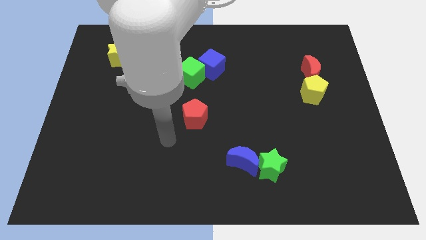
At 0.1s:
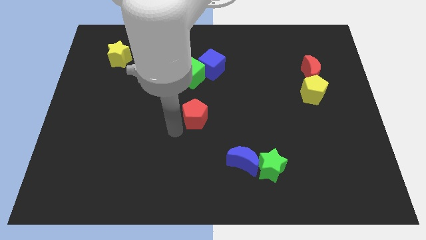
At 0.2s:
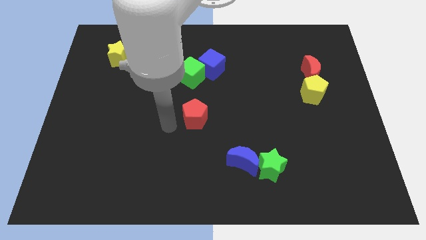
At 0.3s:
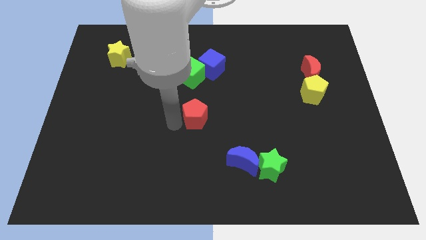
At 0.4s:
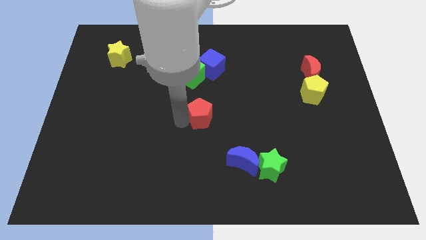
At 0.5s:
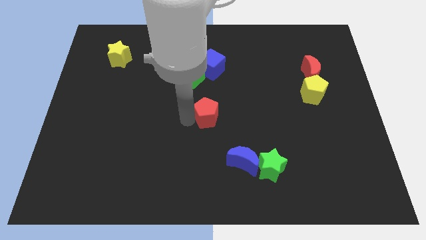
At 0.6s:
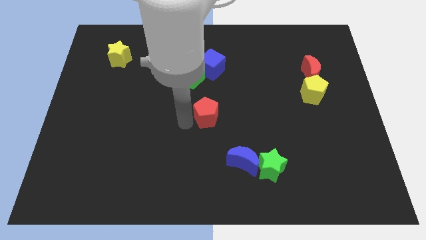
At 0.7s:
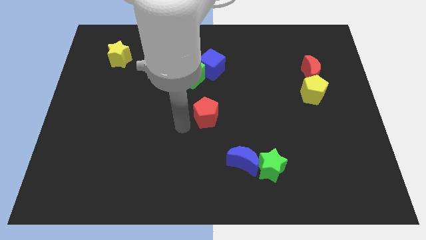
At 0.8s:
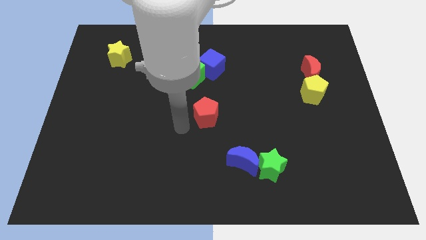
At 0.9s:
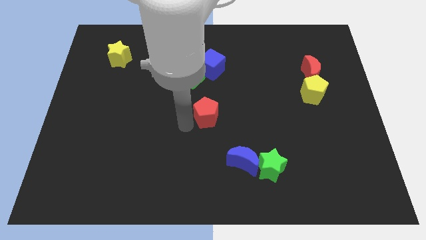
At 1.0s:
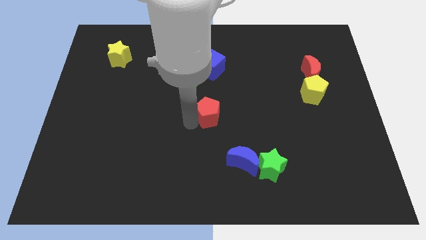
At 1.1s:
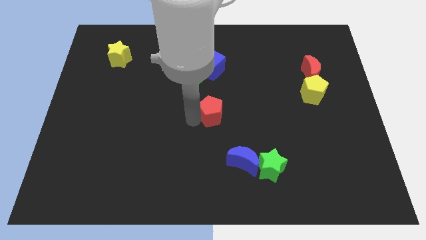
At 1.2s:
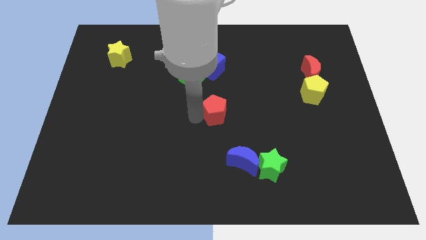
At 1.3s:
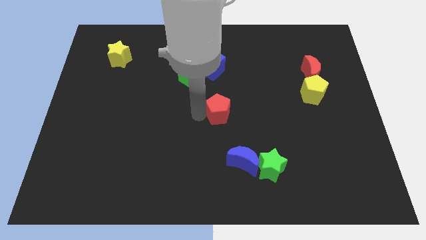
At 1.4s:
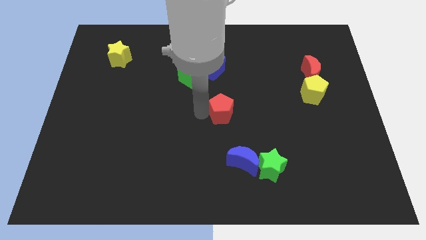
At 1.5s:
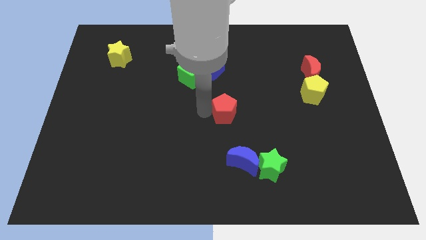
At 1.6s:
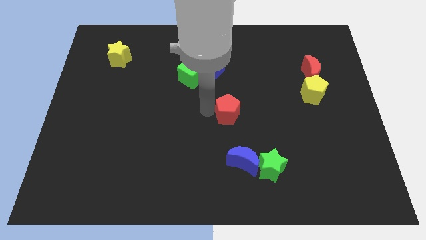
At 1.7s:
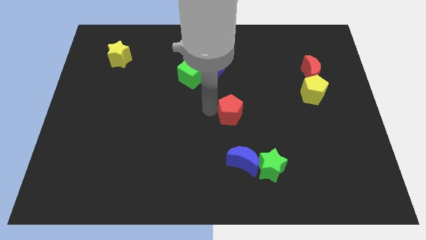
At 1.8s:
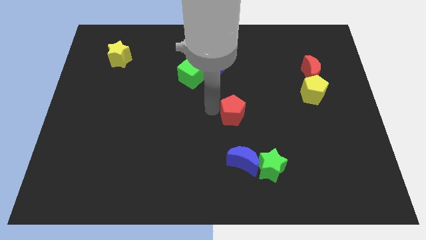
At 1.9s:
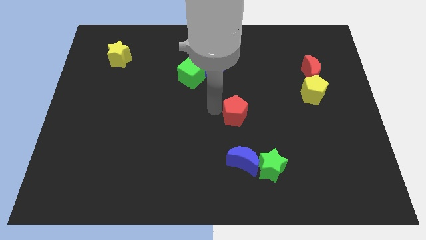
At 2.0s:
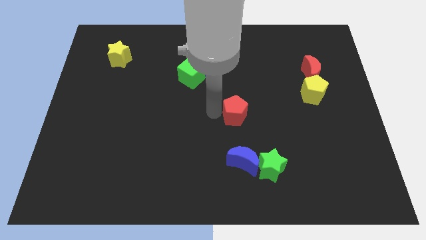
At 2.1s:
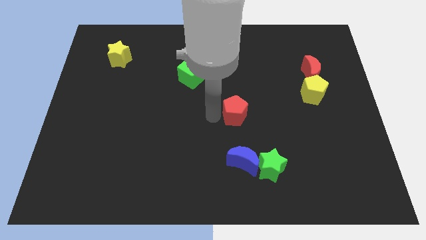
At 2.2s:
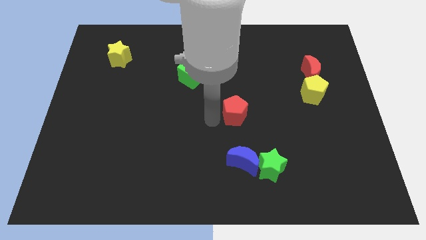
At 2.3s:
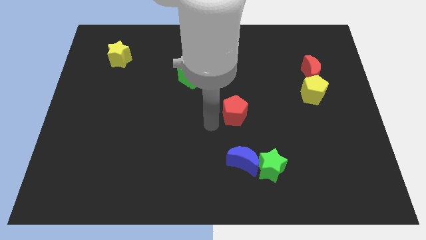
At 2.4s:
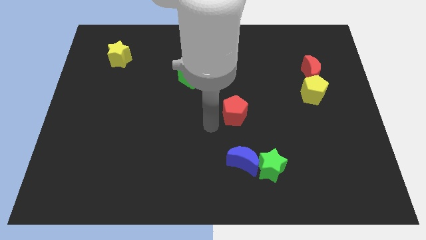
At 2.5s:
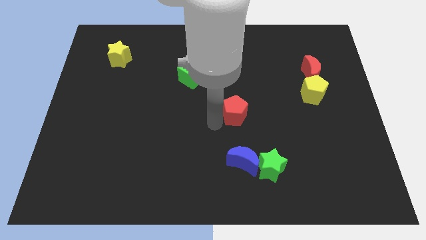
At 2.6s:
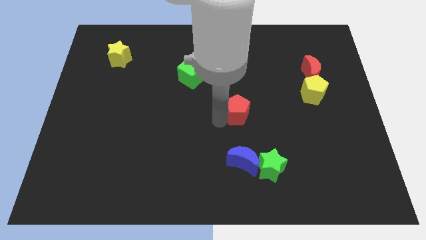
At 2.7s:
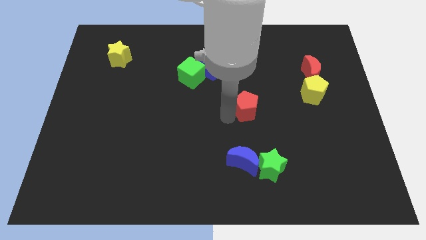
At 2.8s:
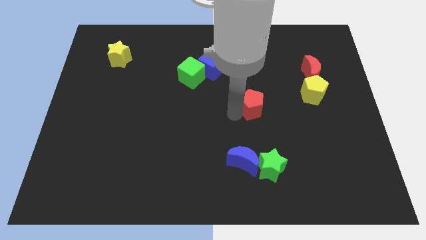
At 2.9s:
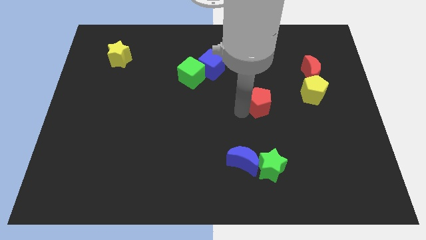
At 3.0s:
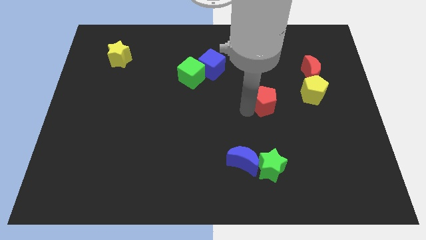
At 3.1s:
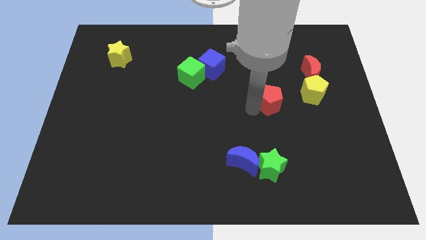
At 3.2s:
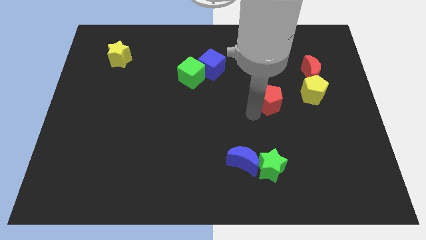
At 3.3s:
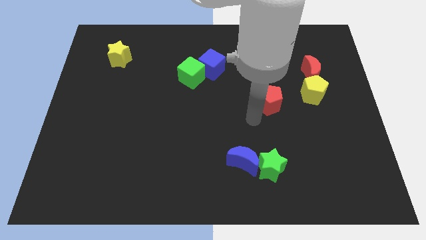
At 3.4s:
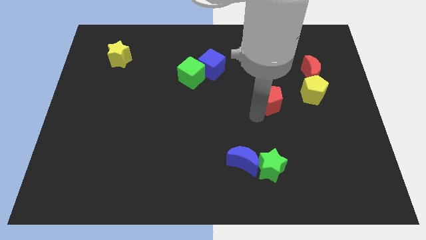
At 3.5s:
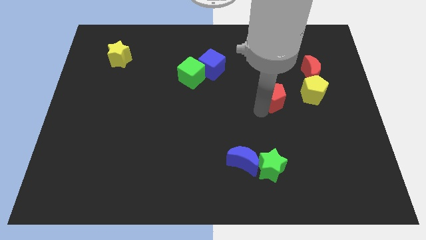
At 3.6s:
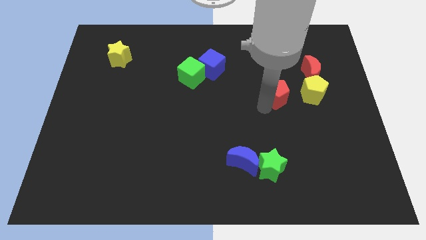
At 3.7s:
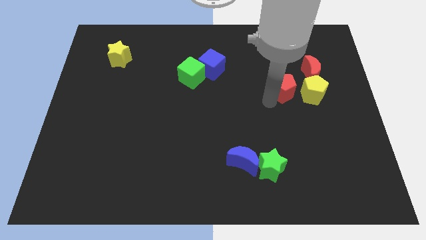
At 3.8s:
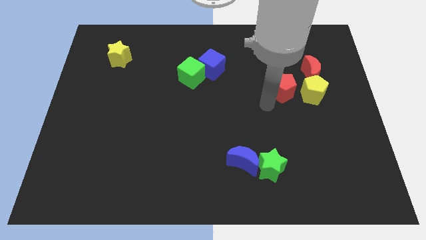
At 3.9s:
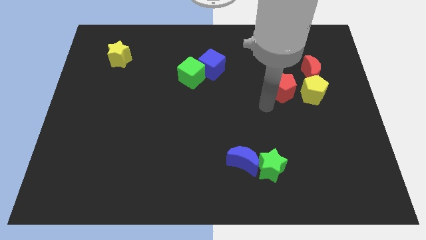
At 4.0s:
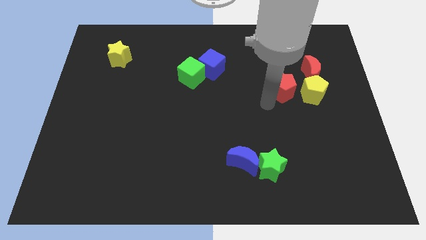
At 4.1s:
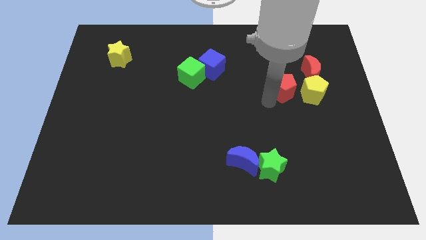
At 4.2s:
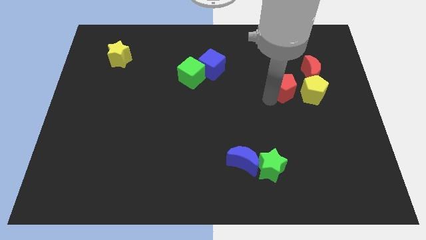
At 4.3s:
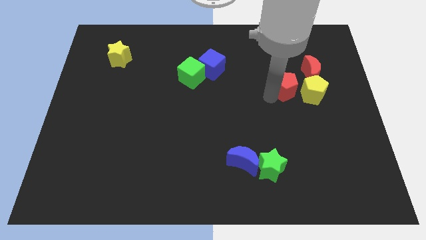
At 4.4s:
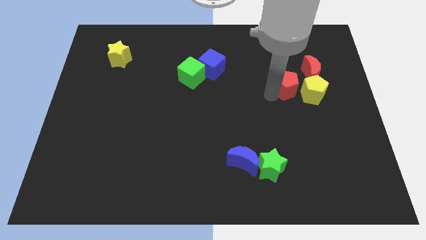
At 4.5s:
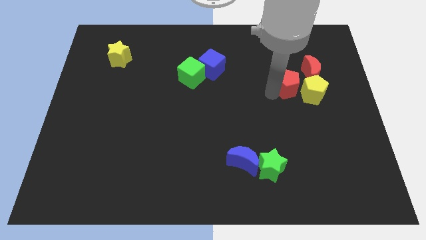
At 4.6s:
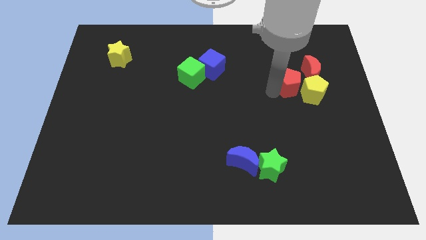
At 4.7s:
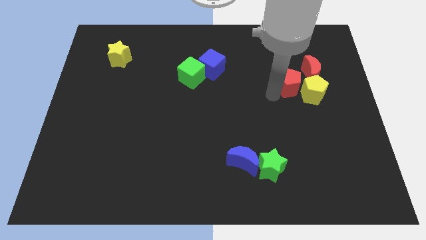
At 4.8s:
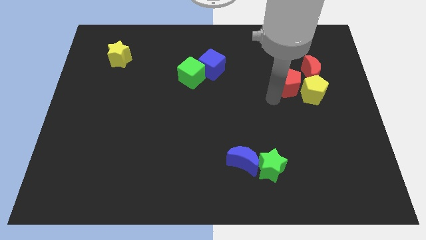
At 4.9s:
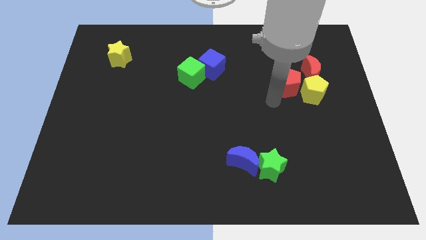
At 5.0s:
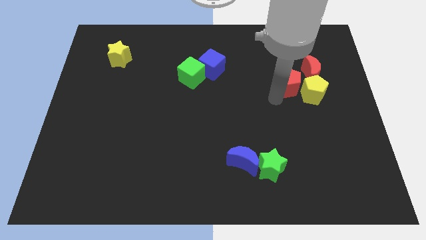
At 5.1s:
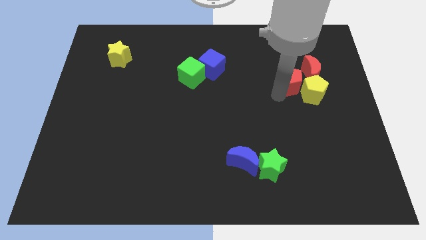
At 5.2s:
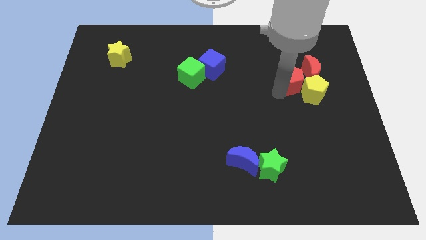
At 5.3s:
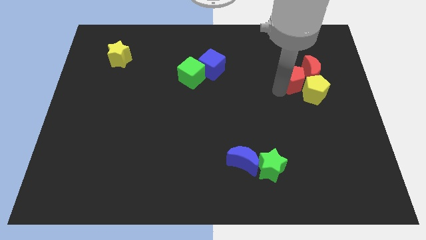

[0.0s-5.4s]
push the red pentagon close to the red moon

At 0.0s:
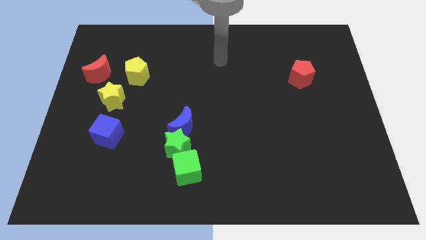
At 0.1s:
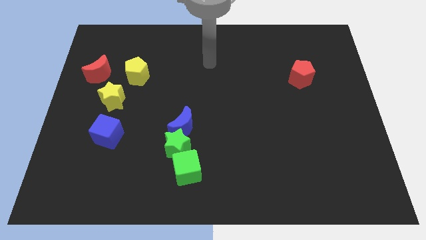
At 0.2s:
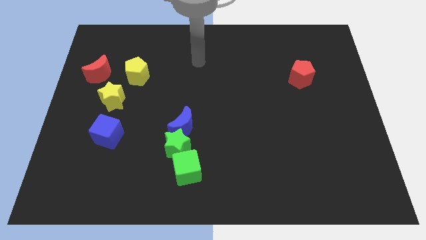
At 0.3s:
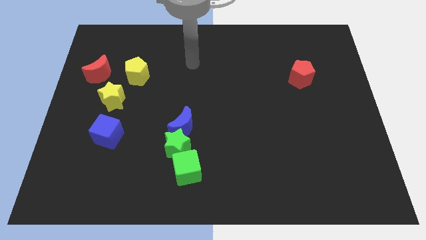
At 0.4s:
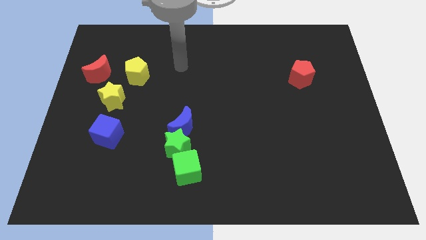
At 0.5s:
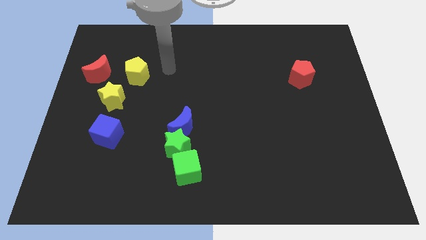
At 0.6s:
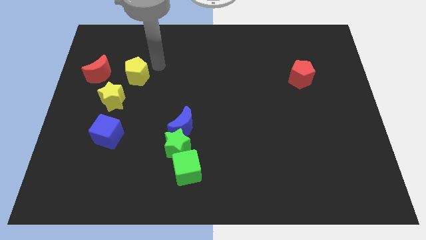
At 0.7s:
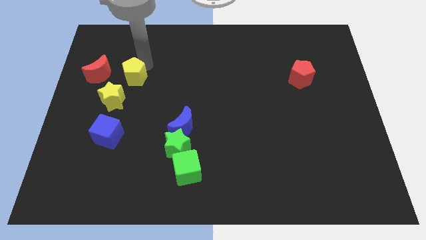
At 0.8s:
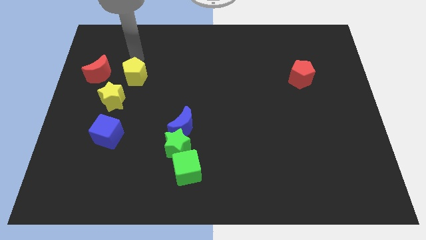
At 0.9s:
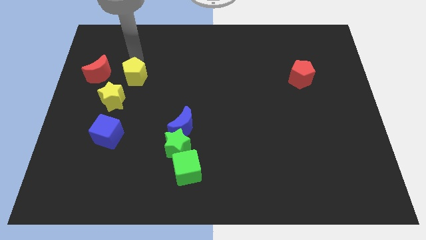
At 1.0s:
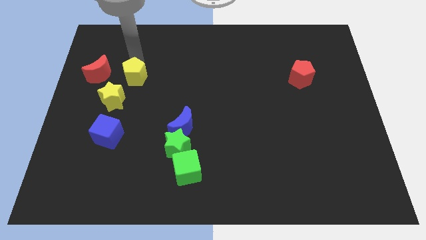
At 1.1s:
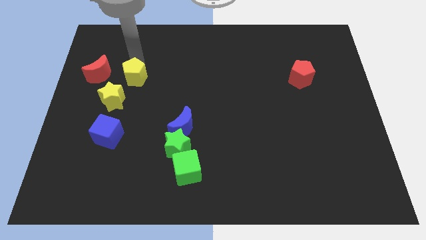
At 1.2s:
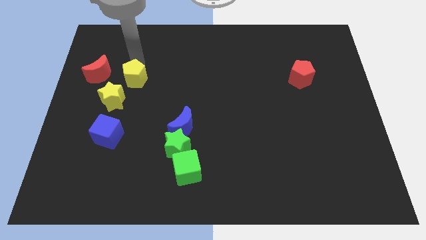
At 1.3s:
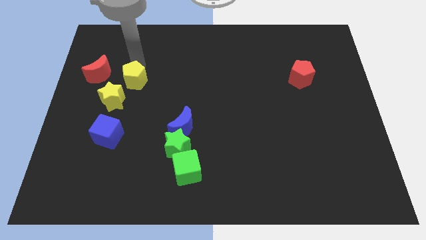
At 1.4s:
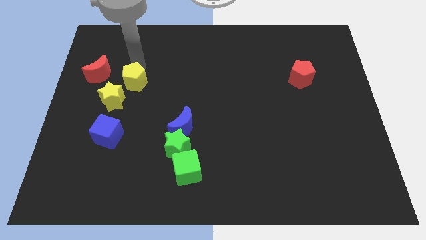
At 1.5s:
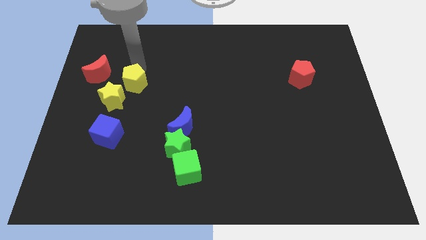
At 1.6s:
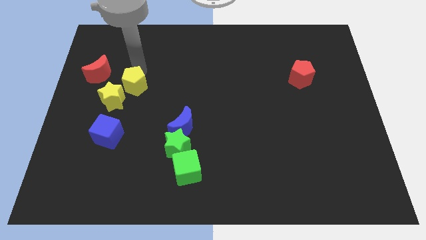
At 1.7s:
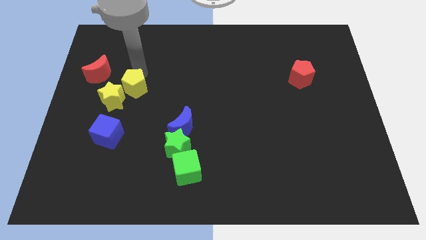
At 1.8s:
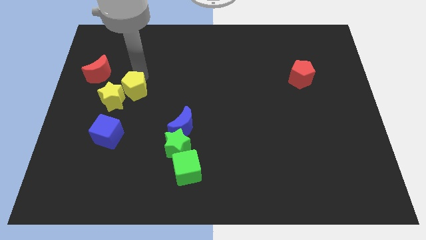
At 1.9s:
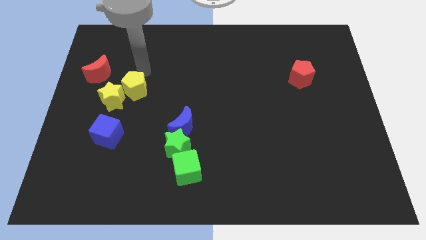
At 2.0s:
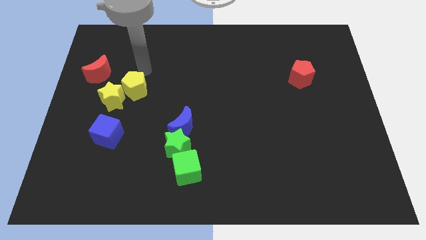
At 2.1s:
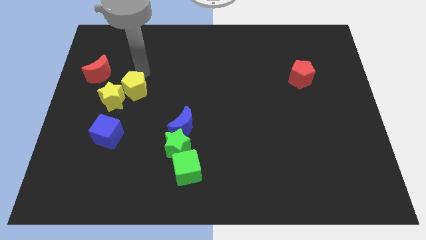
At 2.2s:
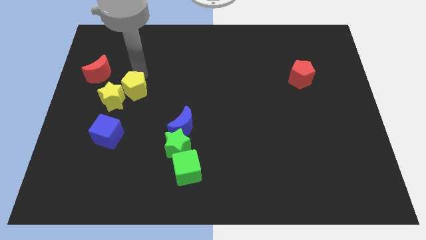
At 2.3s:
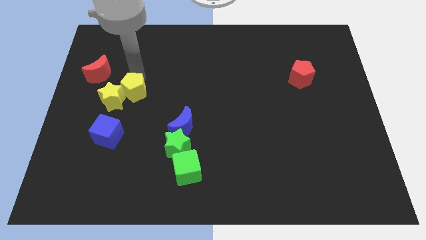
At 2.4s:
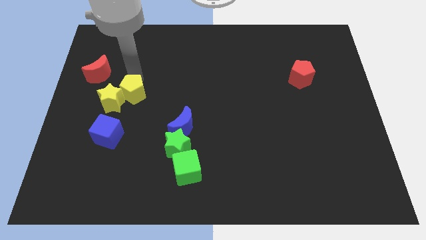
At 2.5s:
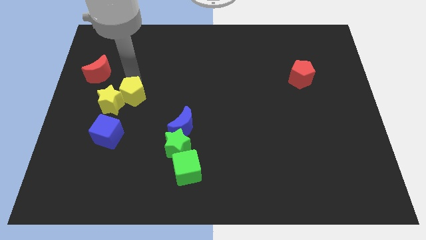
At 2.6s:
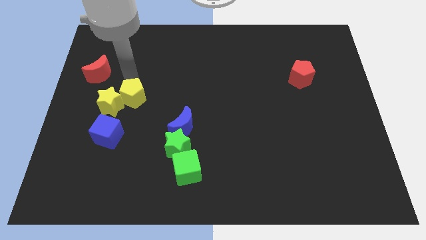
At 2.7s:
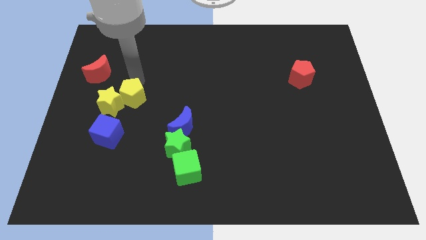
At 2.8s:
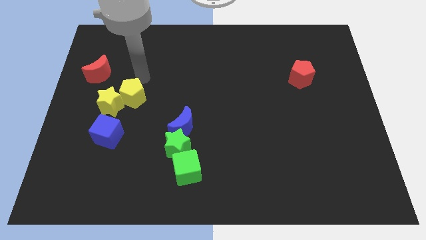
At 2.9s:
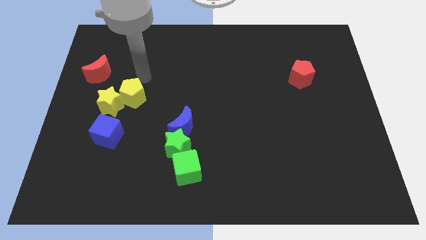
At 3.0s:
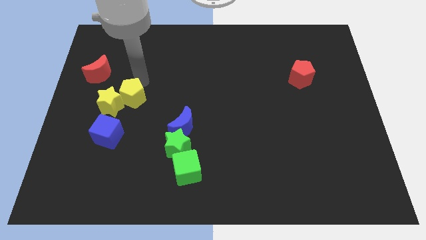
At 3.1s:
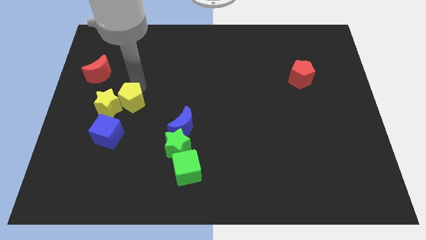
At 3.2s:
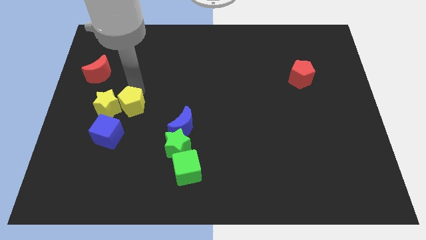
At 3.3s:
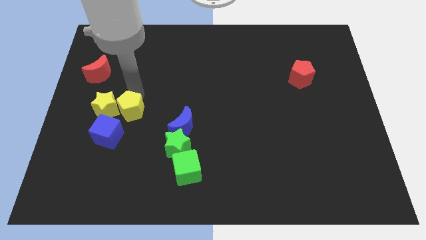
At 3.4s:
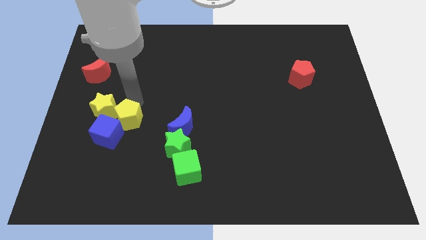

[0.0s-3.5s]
push the yellow pentagon close to the blue cube
